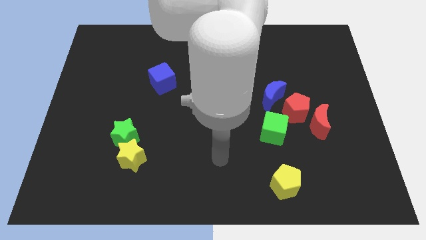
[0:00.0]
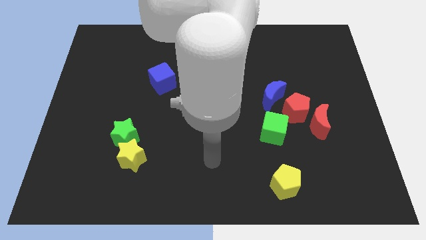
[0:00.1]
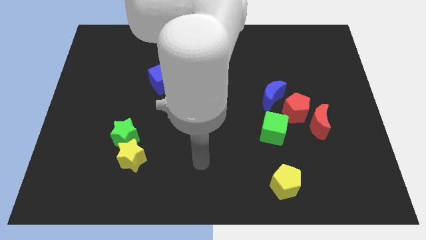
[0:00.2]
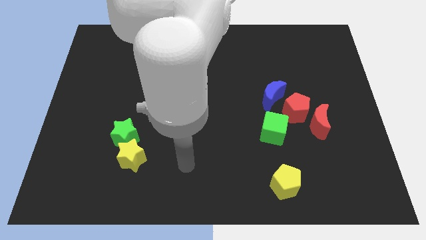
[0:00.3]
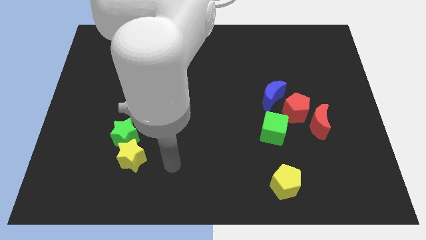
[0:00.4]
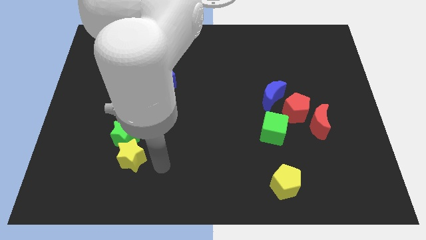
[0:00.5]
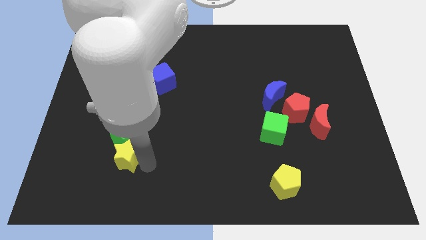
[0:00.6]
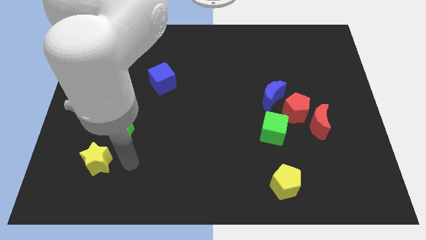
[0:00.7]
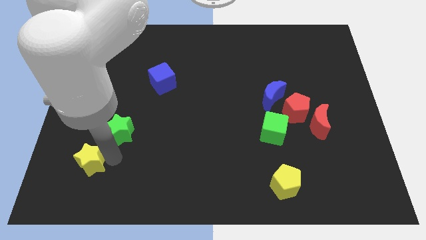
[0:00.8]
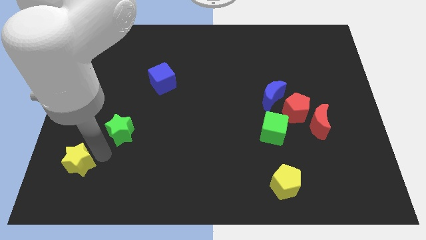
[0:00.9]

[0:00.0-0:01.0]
move the green star away from the yellow star

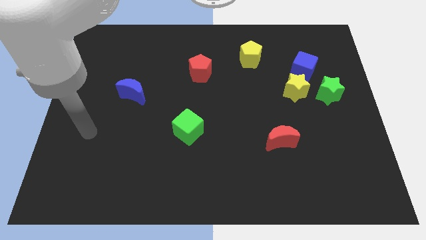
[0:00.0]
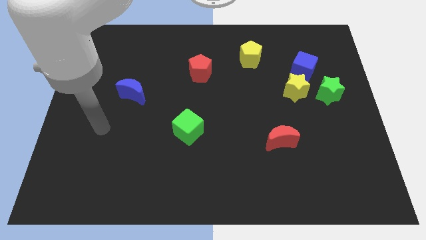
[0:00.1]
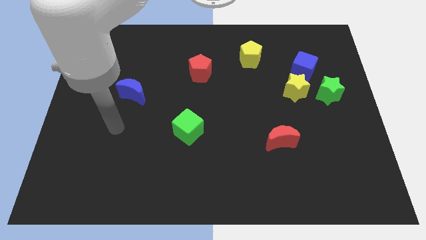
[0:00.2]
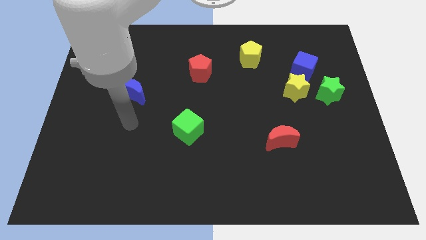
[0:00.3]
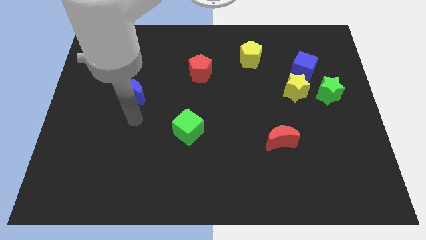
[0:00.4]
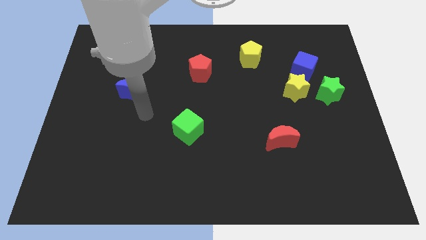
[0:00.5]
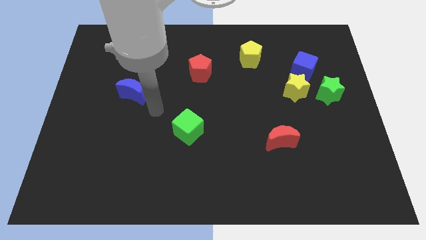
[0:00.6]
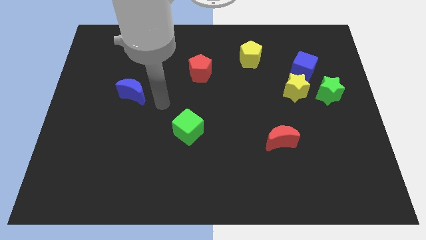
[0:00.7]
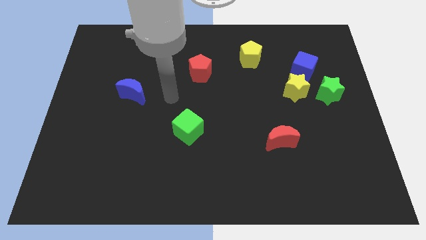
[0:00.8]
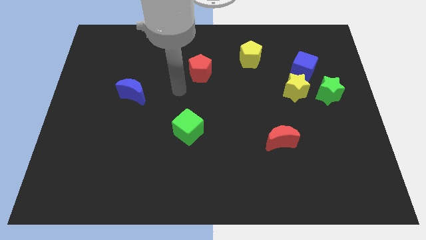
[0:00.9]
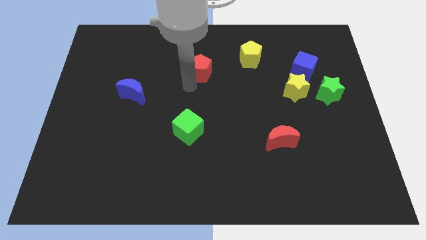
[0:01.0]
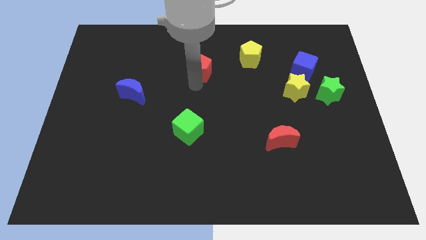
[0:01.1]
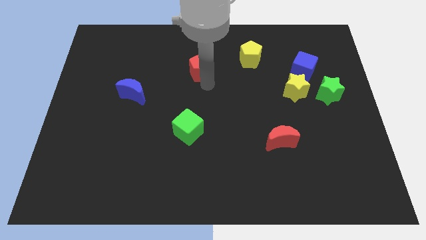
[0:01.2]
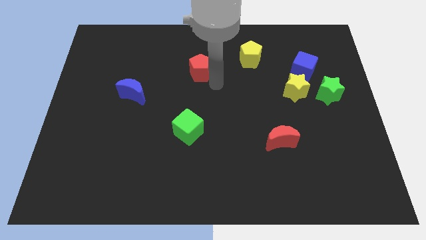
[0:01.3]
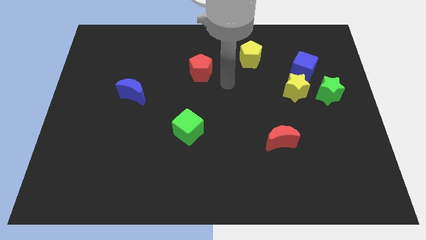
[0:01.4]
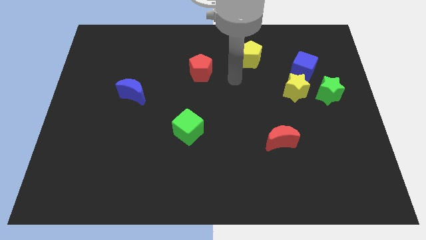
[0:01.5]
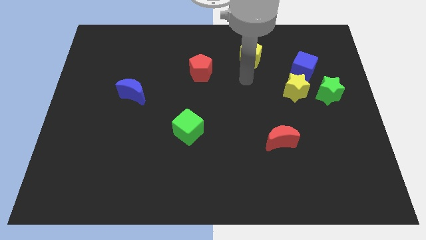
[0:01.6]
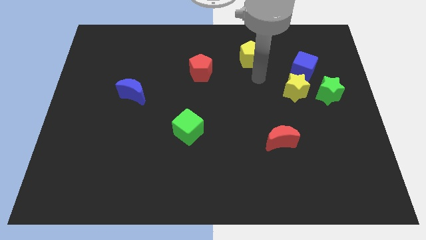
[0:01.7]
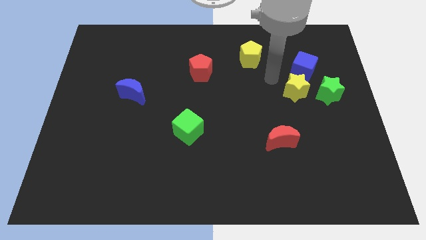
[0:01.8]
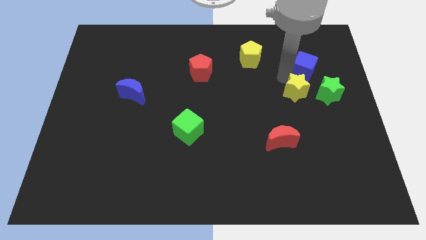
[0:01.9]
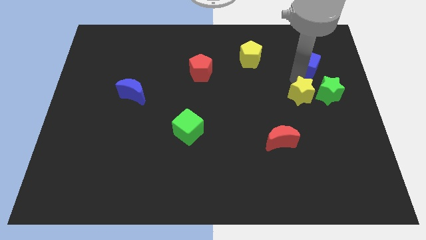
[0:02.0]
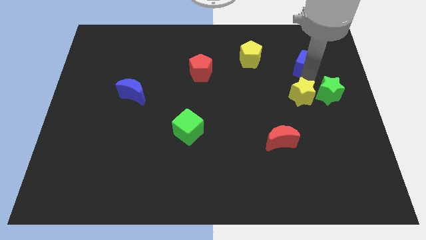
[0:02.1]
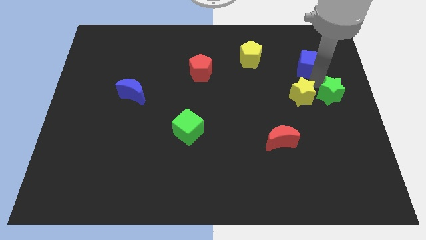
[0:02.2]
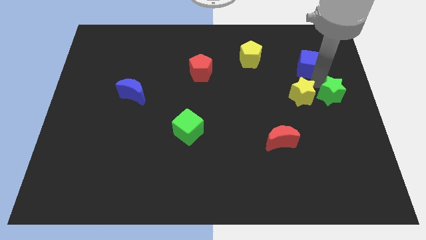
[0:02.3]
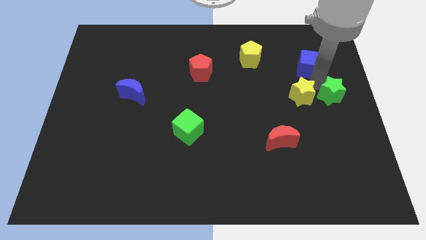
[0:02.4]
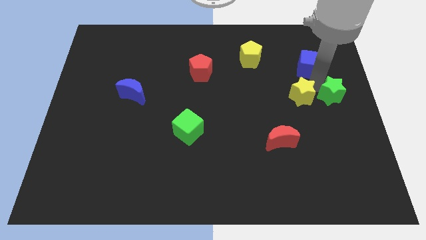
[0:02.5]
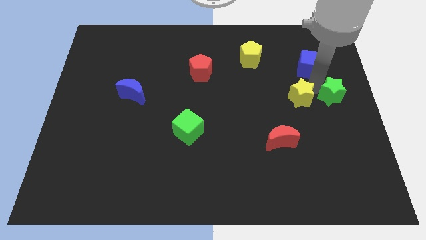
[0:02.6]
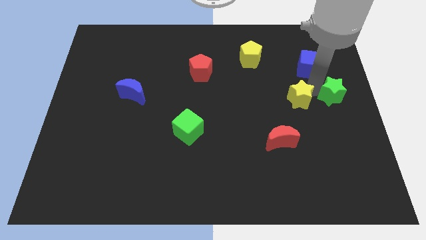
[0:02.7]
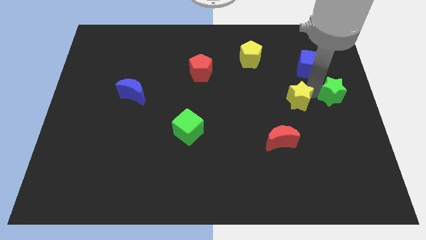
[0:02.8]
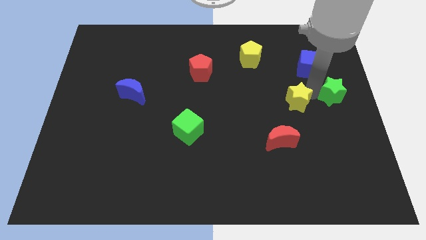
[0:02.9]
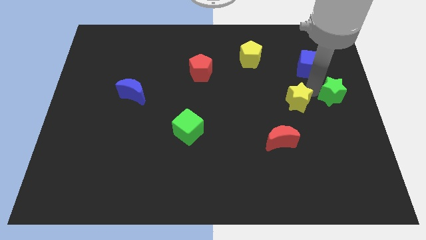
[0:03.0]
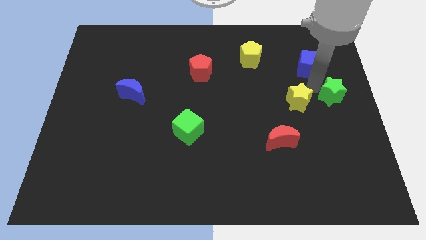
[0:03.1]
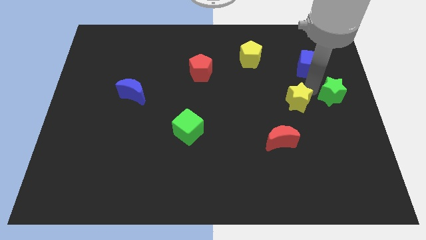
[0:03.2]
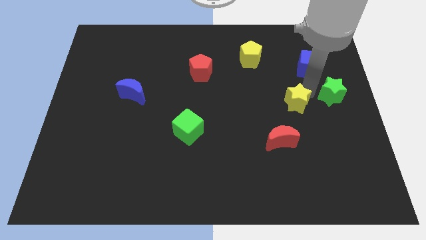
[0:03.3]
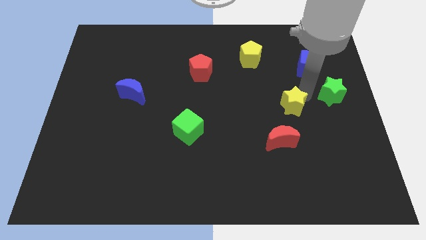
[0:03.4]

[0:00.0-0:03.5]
pull the yellow star apart from the blue cube and green star

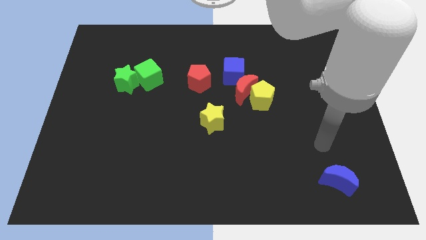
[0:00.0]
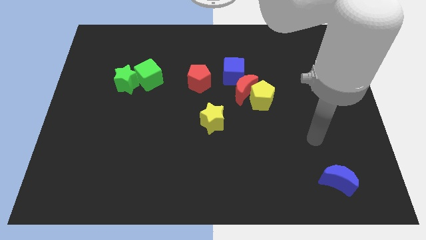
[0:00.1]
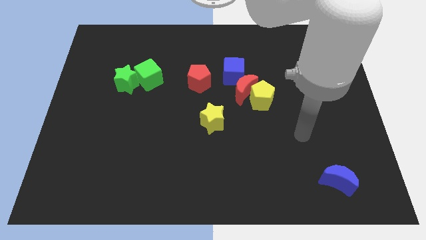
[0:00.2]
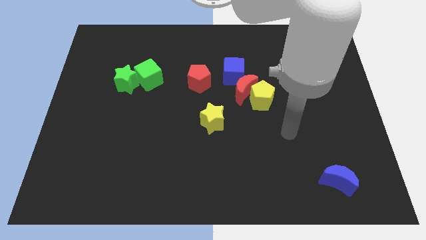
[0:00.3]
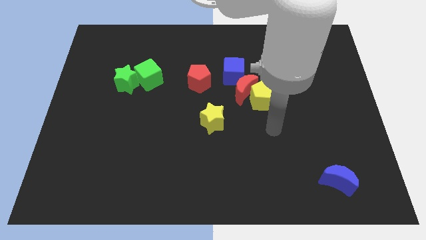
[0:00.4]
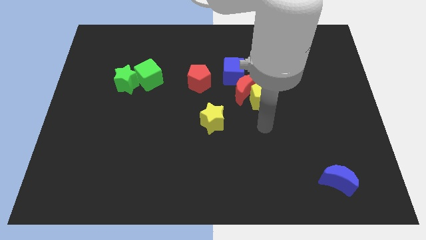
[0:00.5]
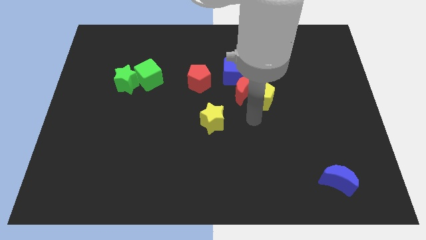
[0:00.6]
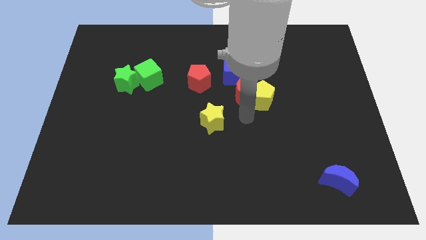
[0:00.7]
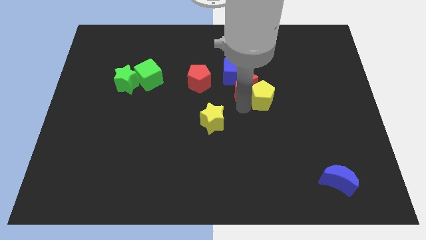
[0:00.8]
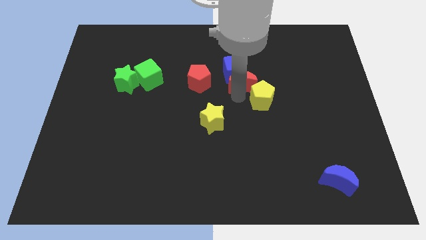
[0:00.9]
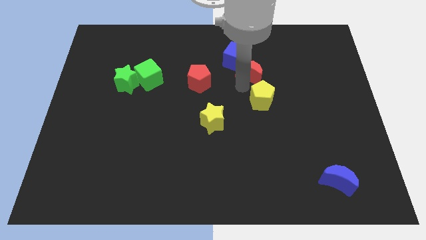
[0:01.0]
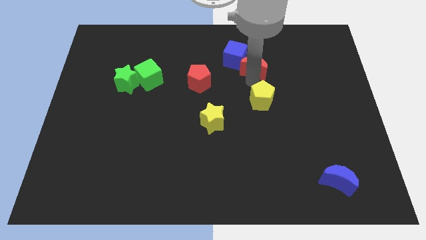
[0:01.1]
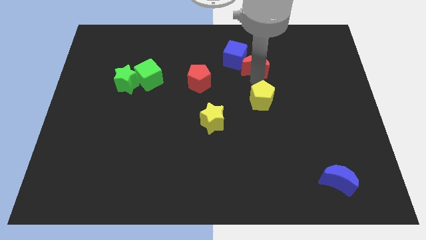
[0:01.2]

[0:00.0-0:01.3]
pull the yellow pentagon apart from the red moon

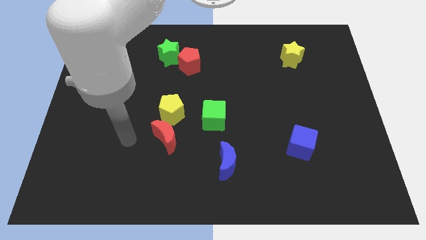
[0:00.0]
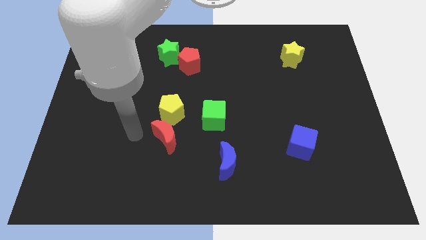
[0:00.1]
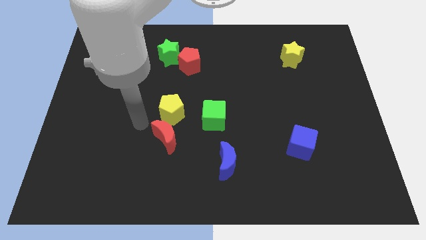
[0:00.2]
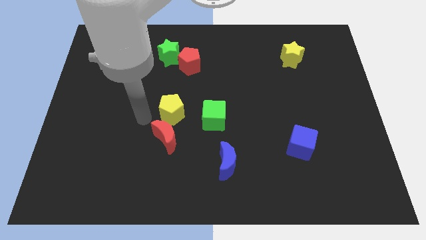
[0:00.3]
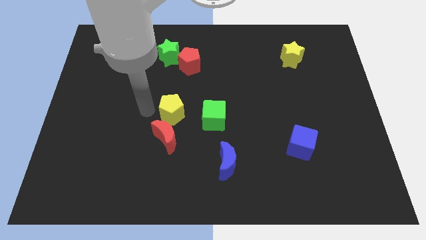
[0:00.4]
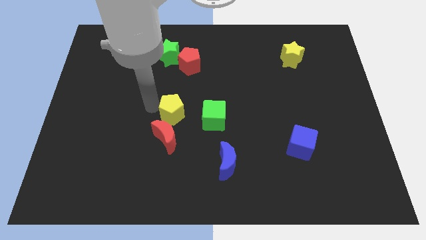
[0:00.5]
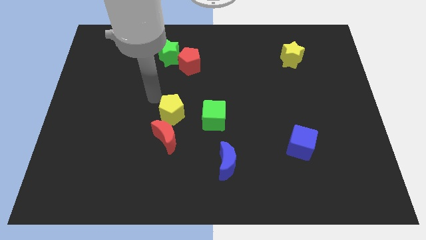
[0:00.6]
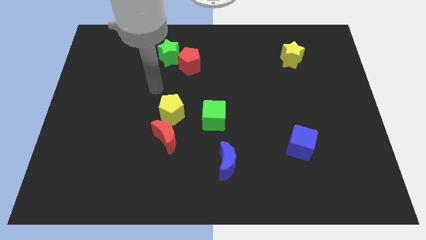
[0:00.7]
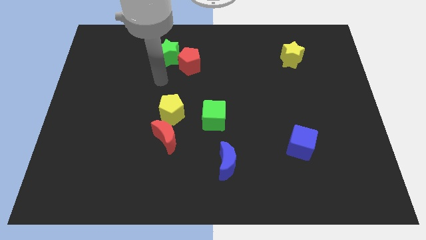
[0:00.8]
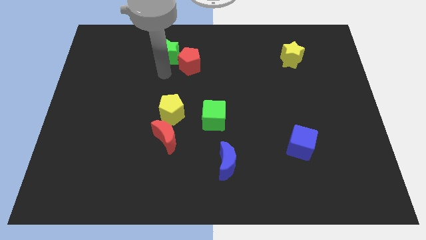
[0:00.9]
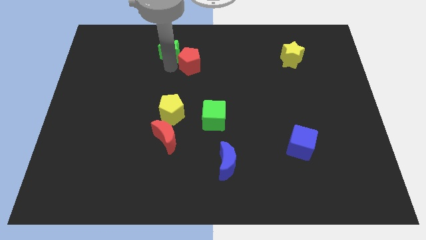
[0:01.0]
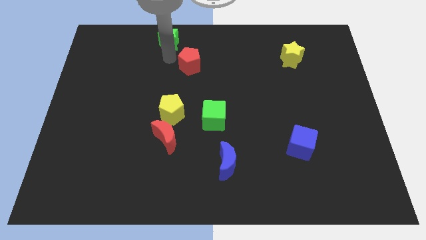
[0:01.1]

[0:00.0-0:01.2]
pull the red pentagon apart from the green star

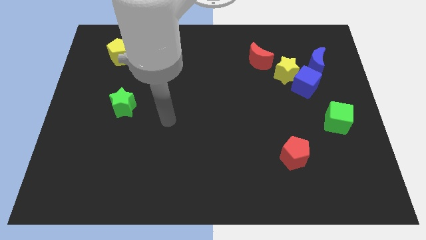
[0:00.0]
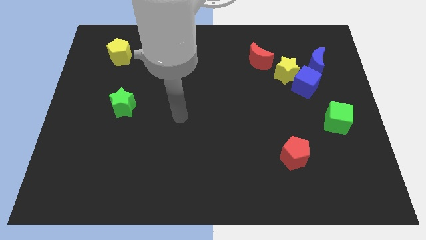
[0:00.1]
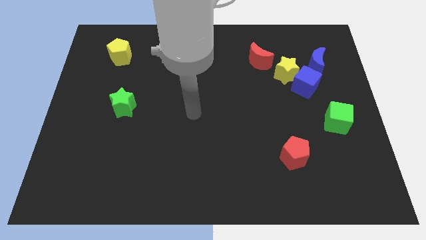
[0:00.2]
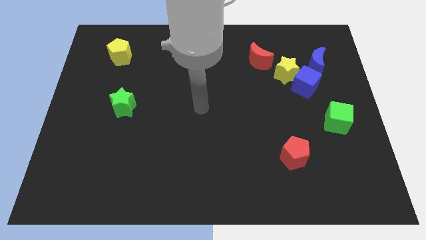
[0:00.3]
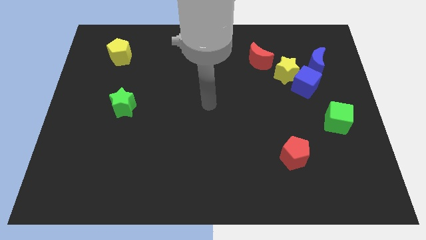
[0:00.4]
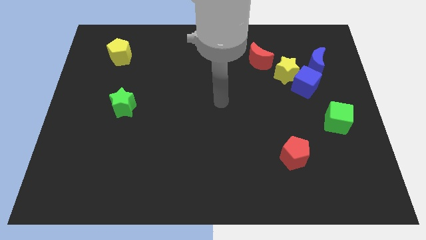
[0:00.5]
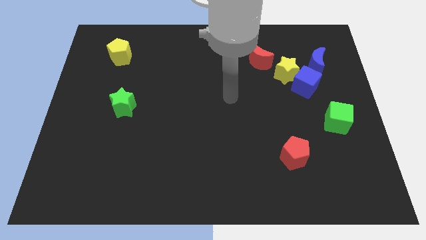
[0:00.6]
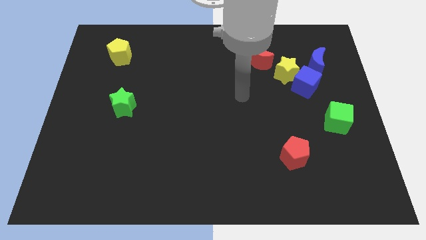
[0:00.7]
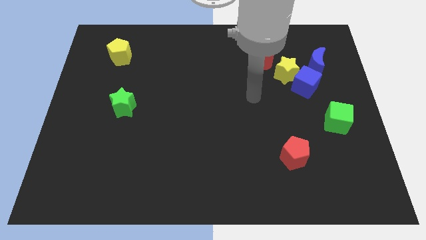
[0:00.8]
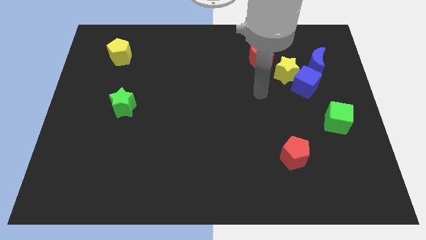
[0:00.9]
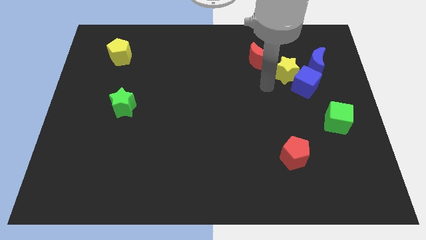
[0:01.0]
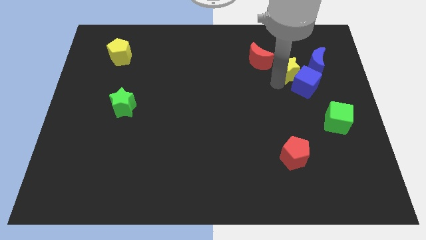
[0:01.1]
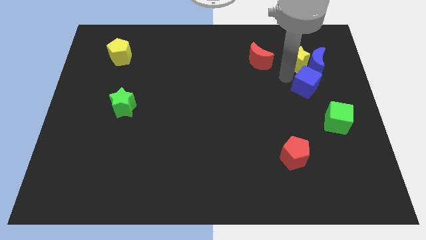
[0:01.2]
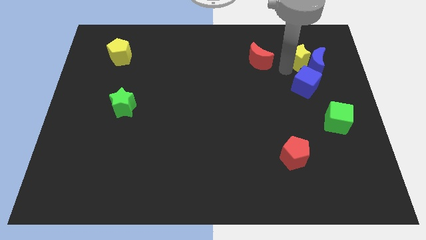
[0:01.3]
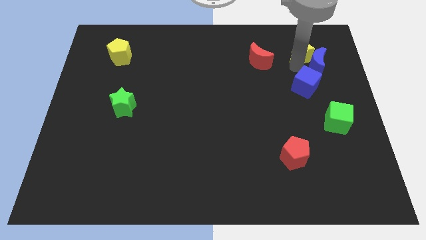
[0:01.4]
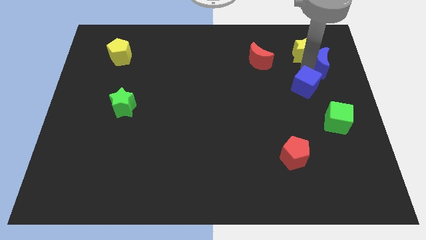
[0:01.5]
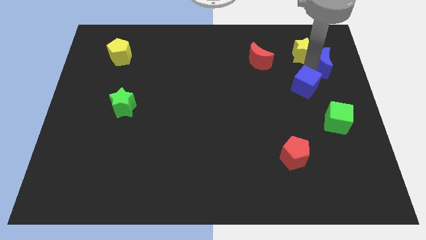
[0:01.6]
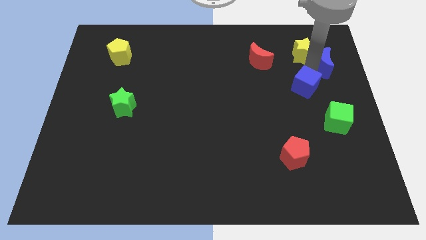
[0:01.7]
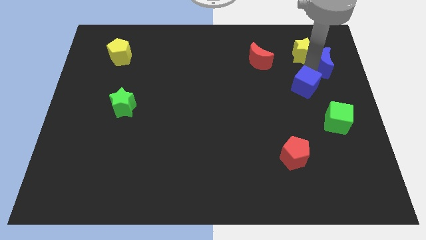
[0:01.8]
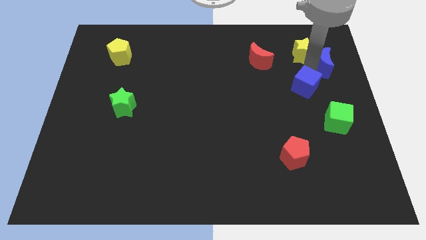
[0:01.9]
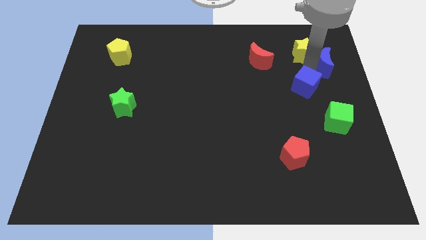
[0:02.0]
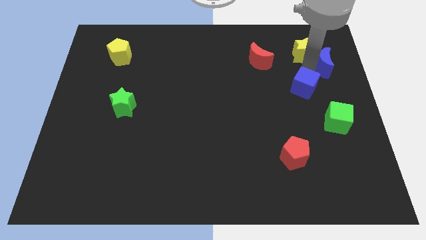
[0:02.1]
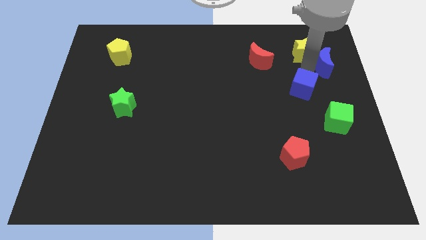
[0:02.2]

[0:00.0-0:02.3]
pull the blue cube apart from the yellow star and blue moon

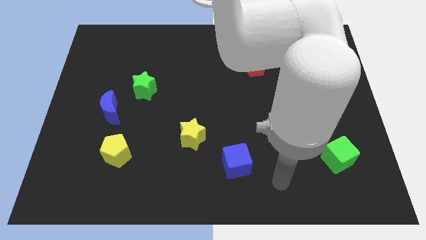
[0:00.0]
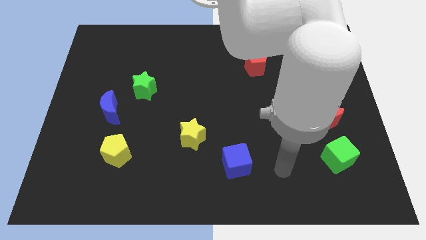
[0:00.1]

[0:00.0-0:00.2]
pull the red moon apart from the green cube
